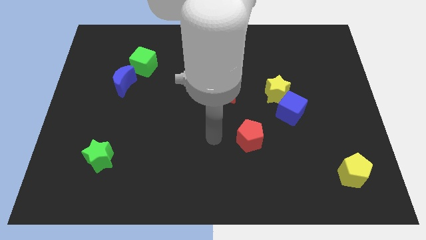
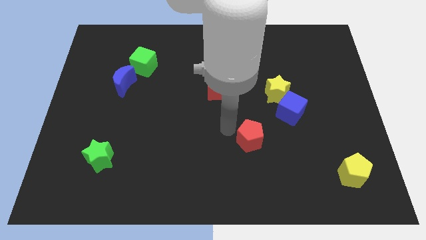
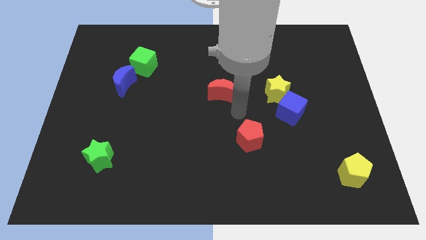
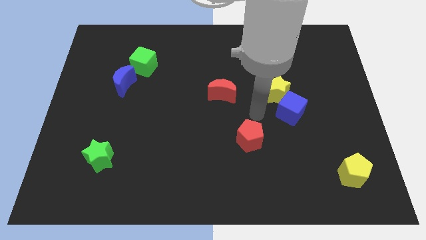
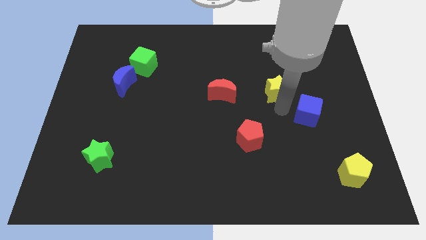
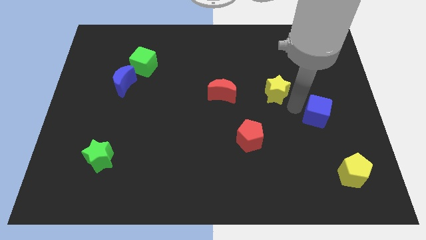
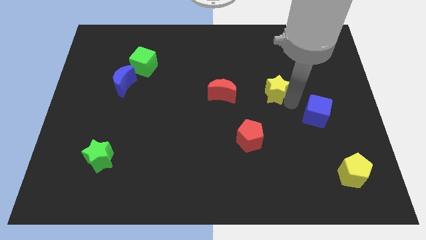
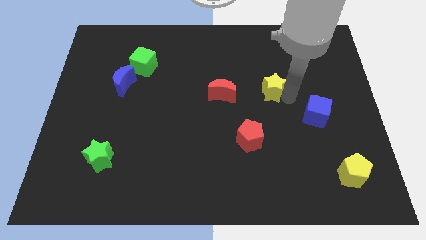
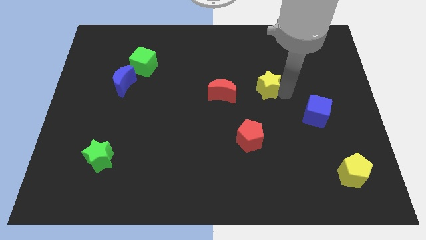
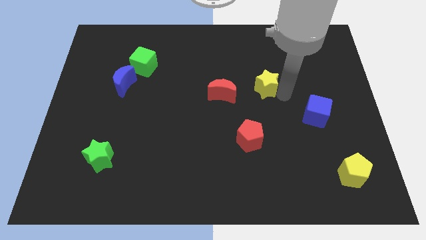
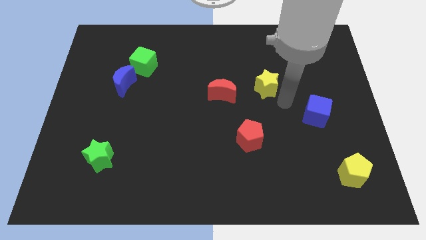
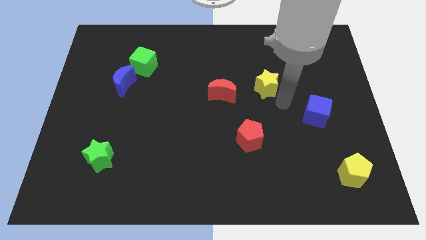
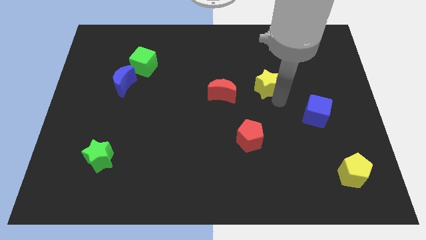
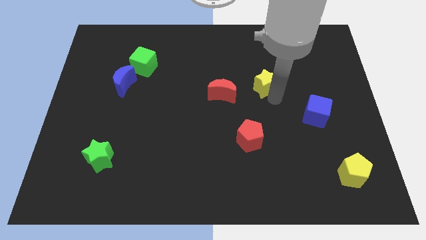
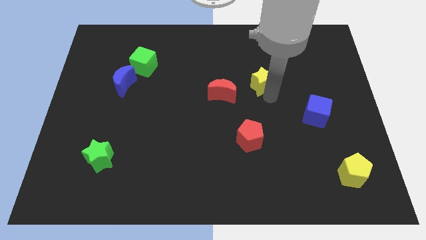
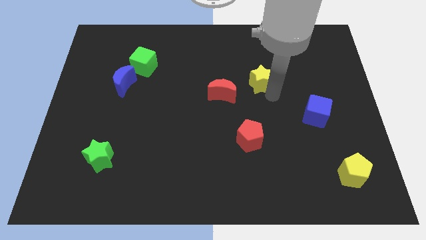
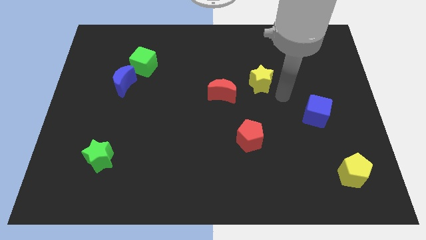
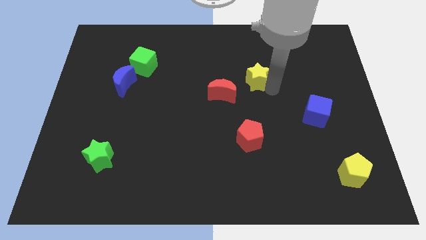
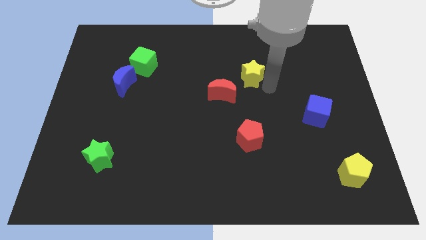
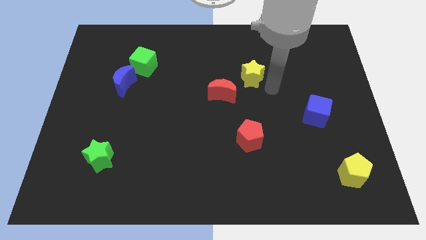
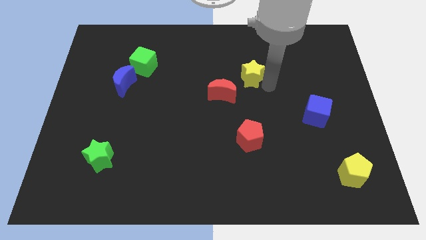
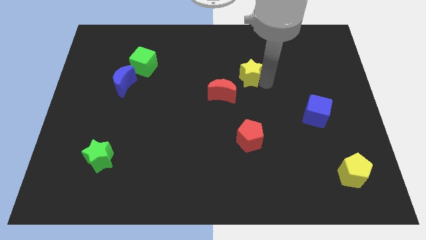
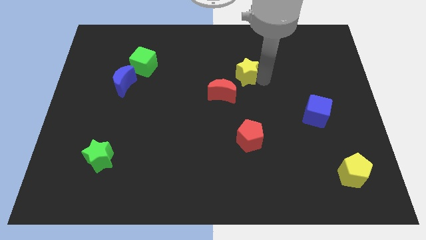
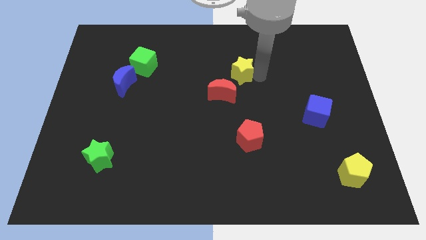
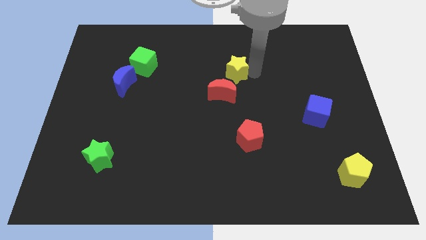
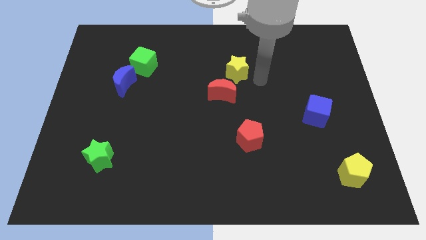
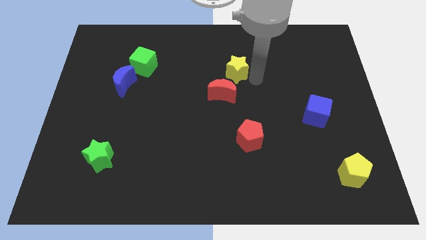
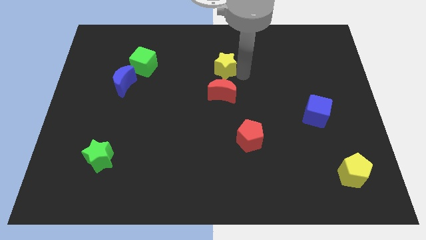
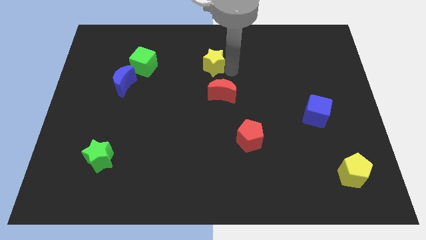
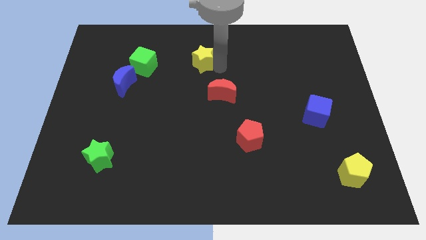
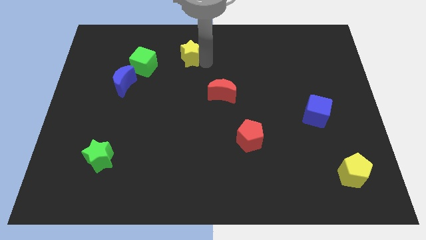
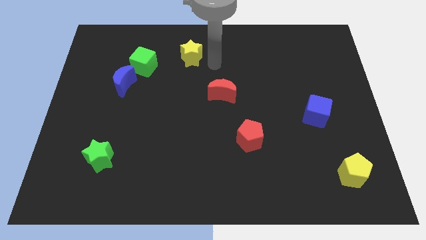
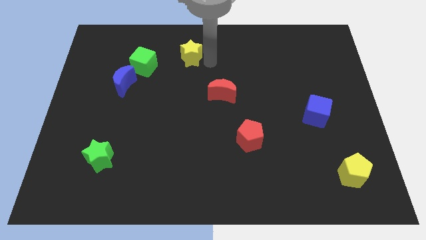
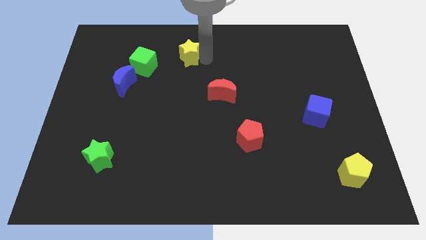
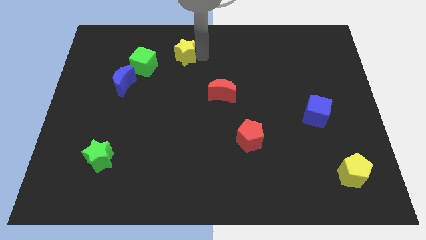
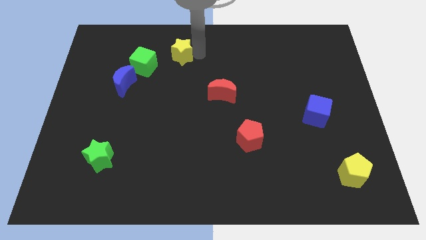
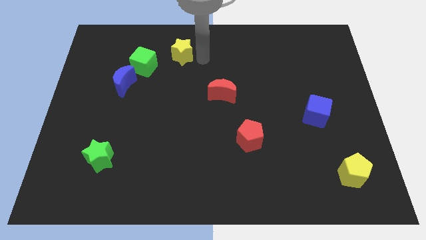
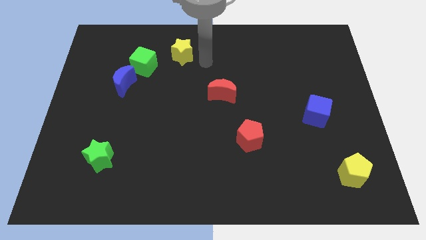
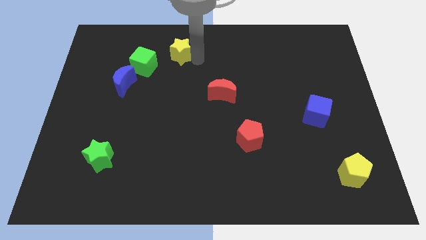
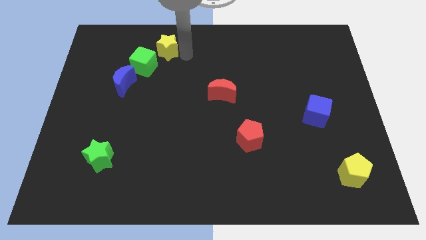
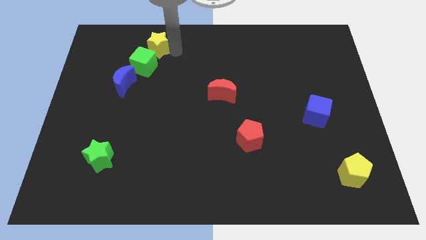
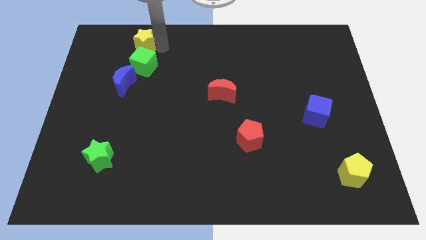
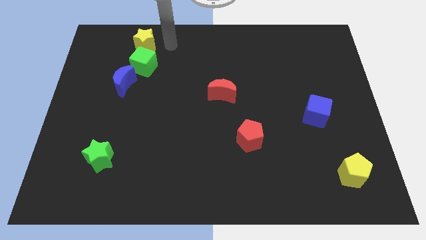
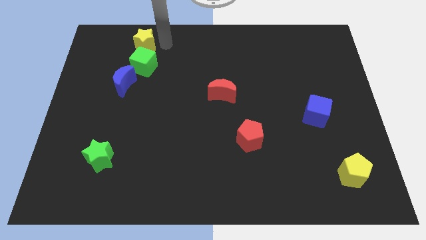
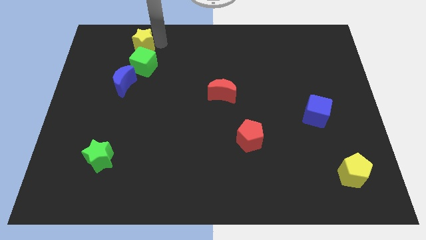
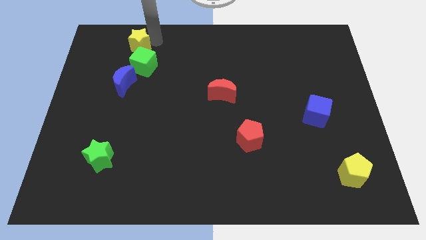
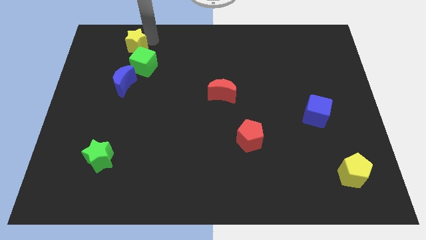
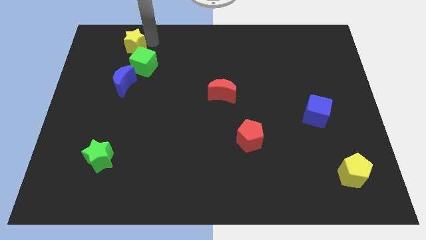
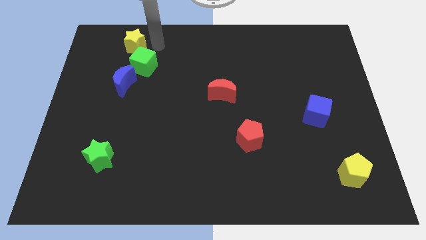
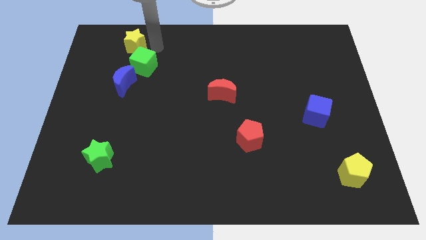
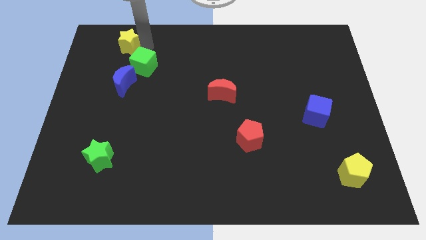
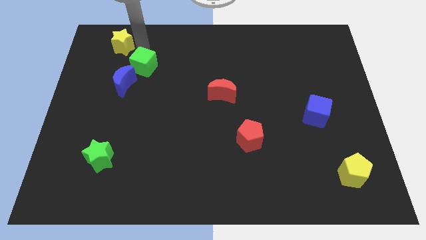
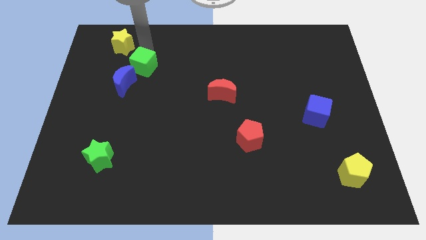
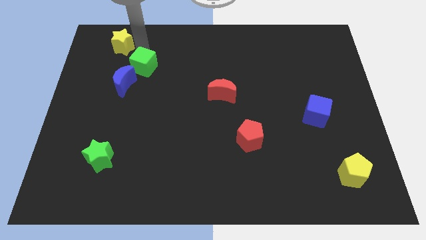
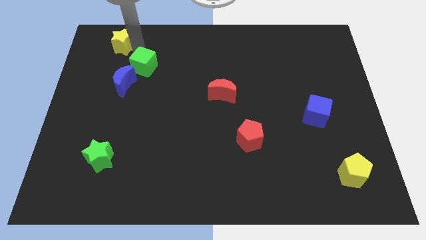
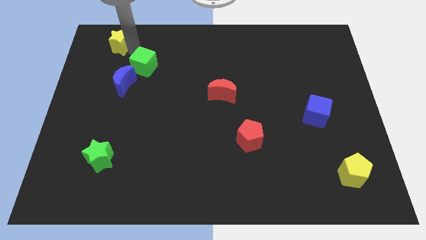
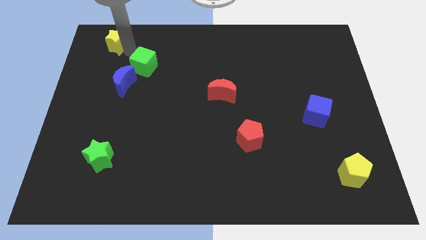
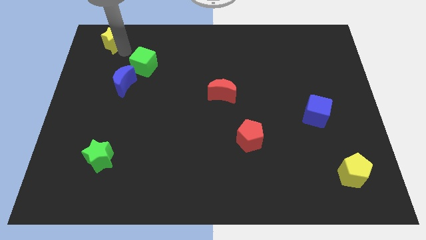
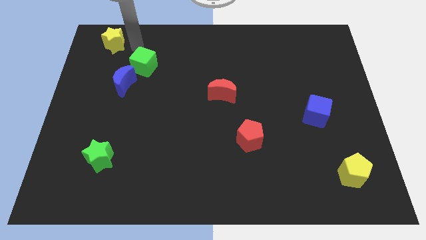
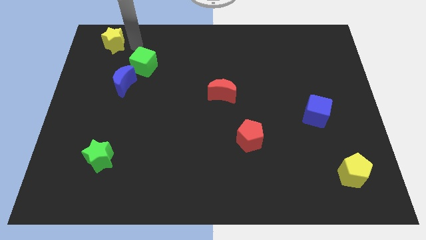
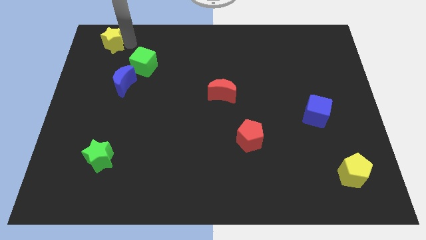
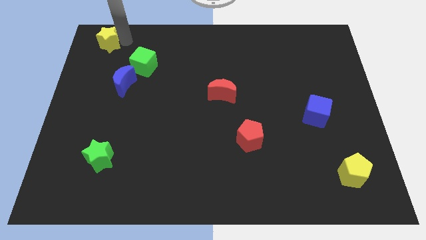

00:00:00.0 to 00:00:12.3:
push the yellow star to the top left

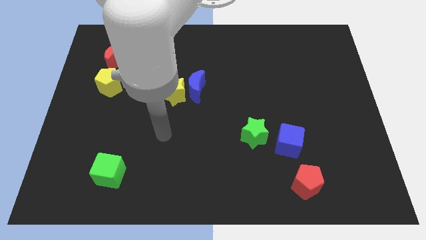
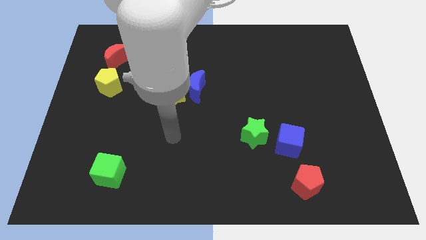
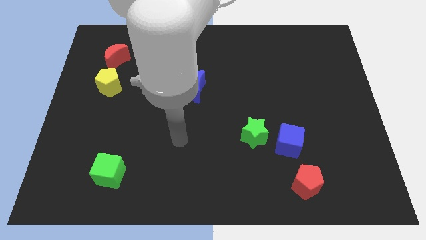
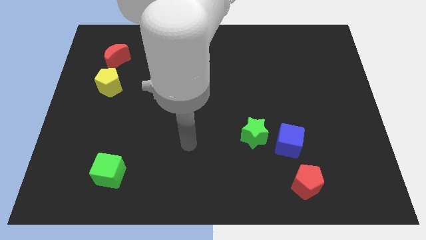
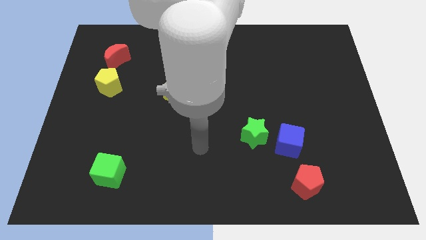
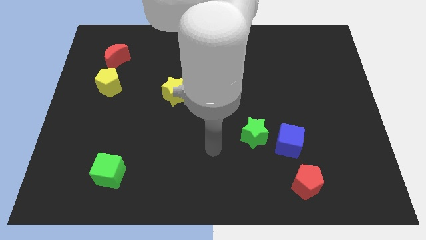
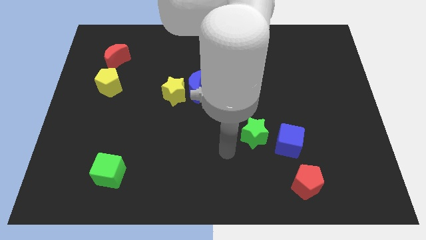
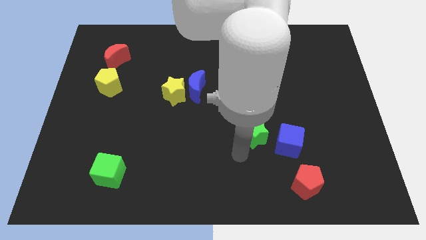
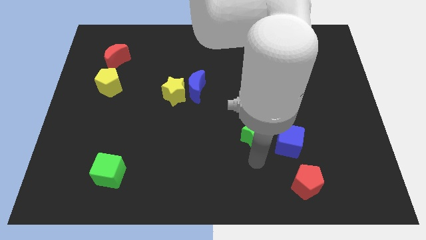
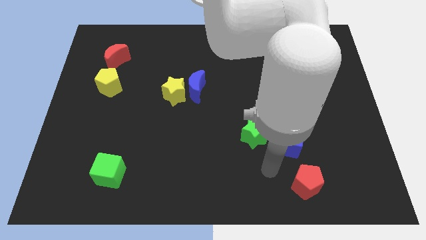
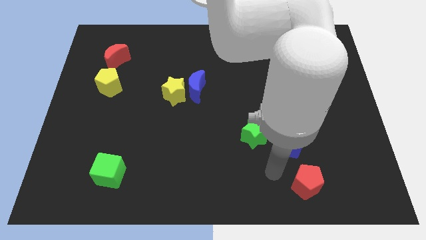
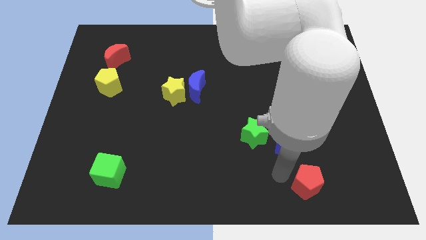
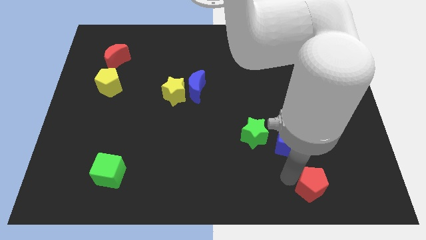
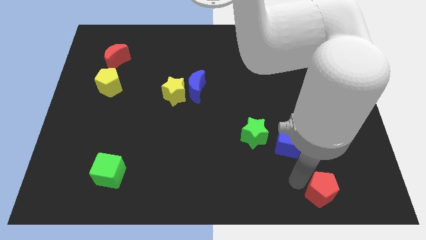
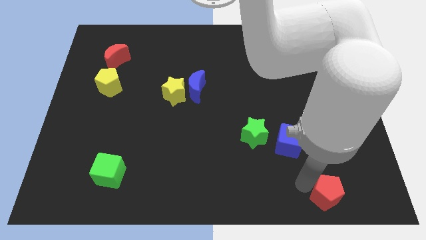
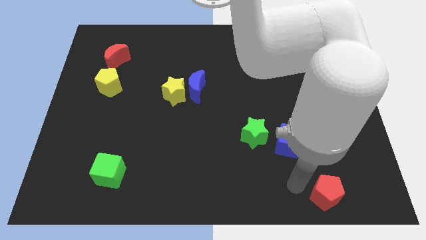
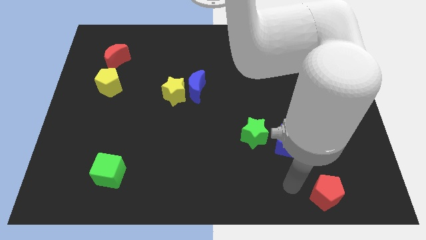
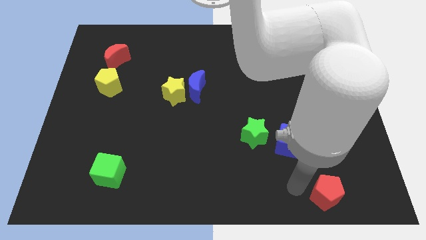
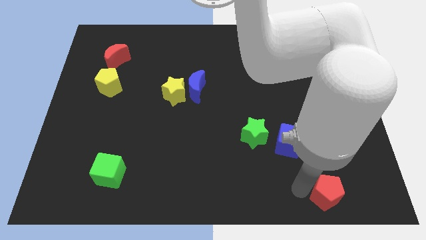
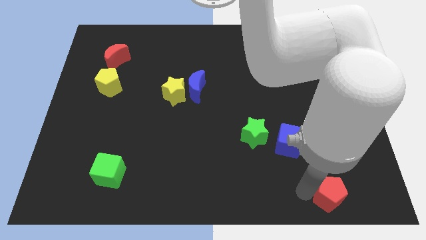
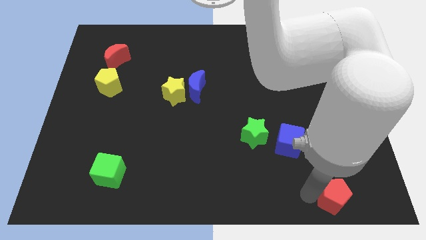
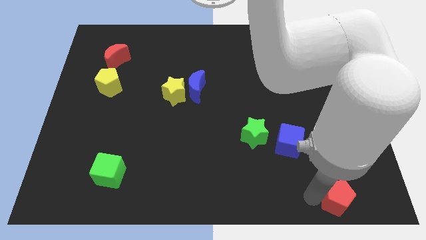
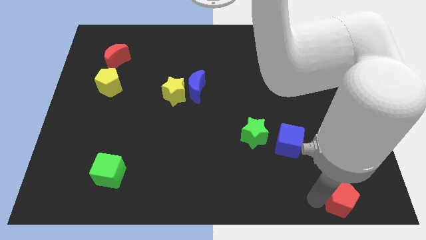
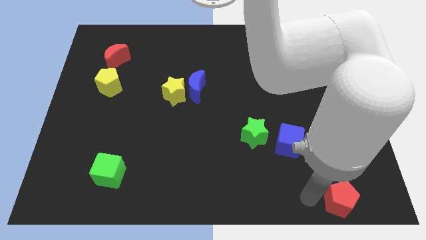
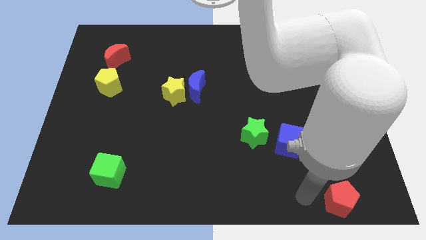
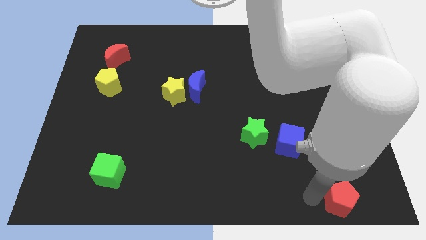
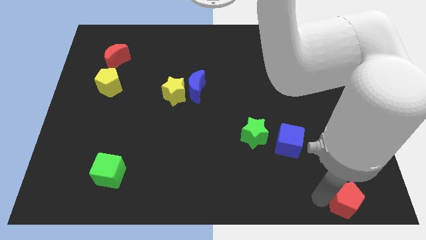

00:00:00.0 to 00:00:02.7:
put the red pentagon to the lower right corner
